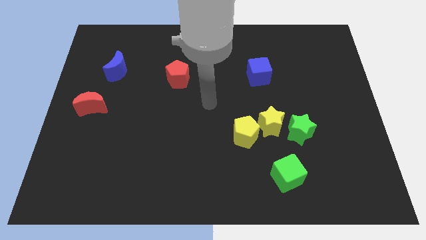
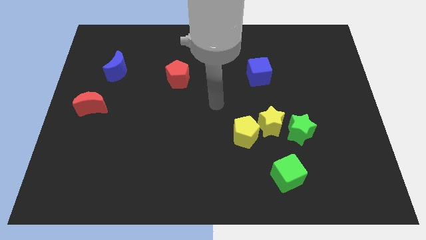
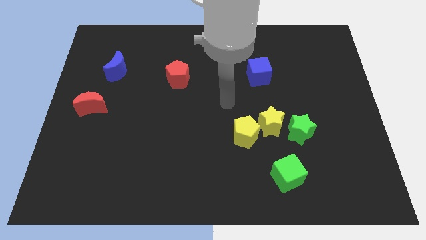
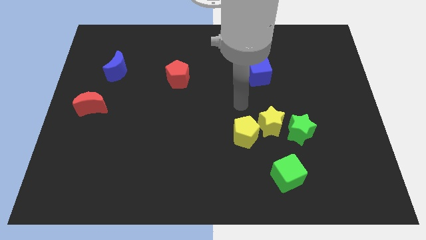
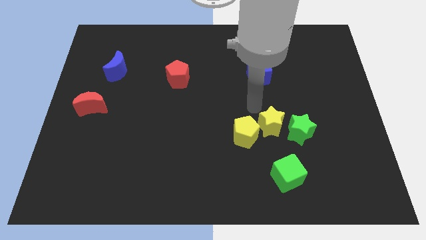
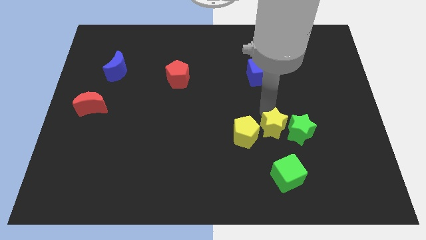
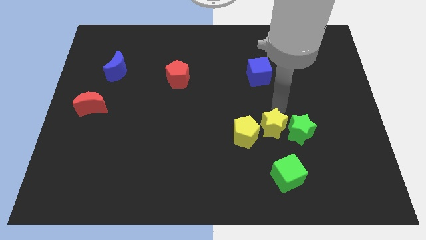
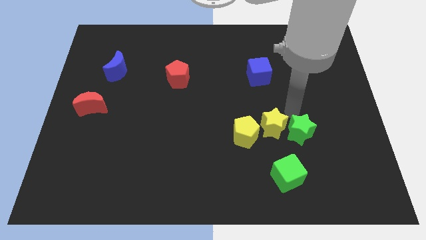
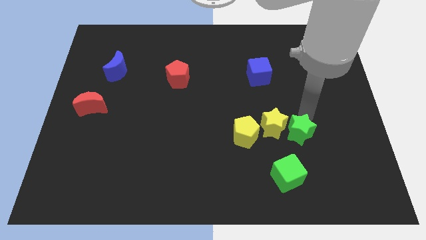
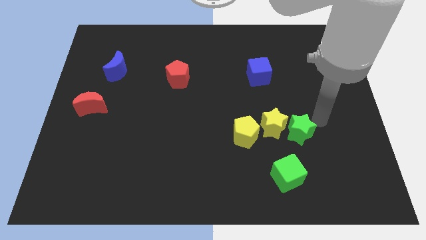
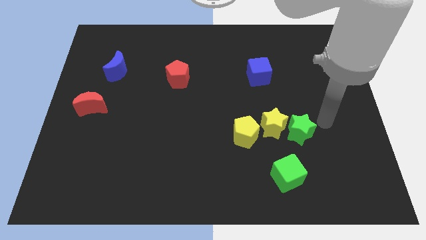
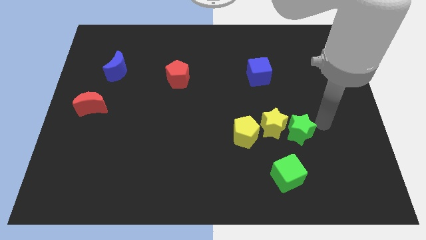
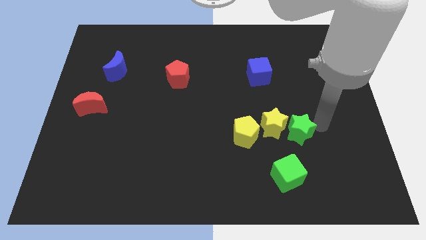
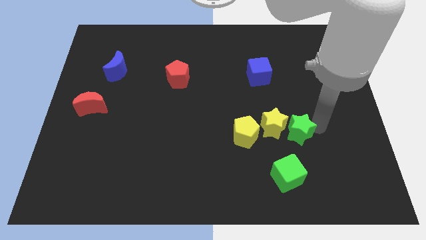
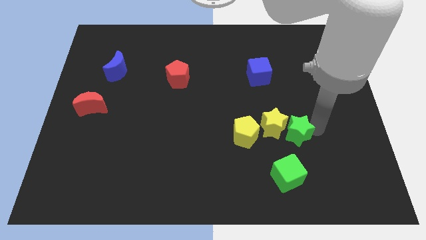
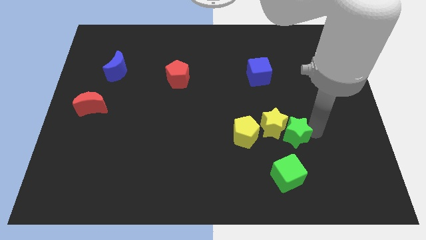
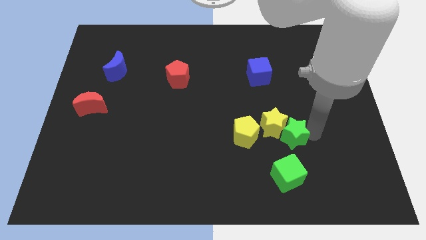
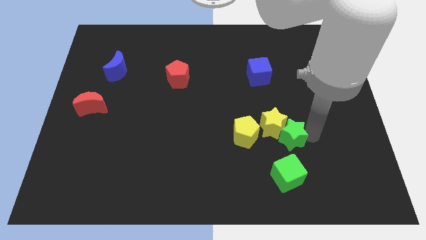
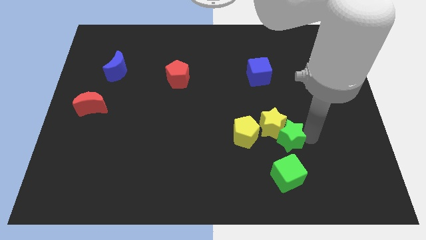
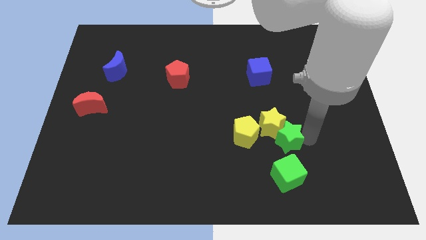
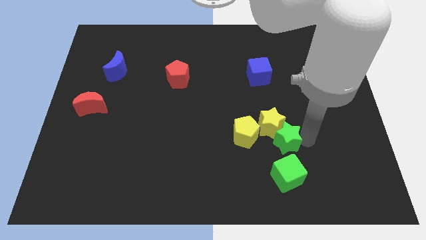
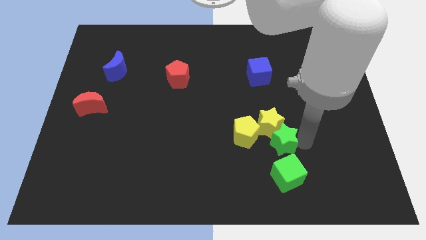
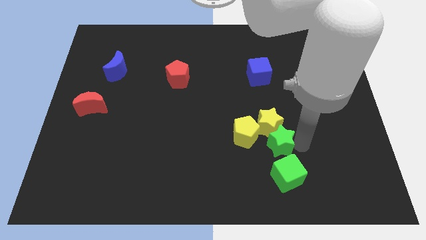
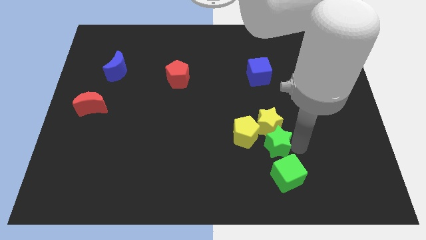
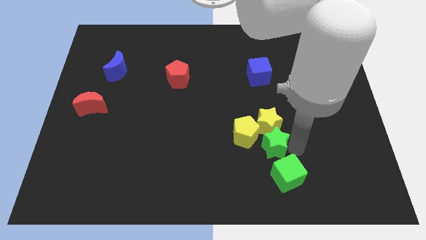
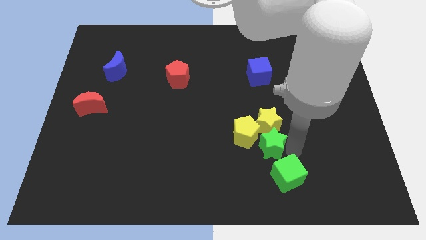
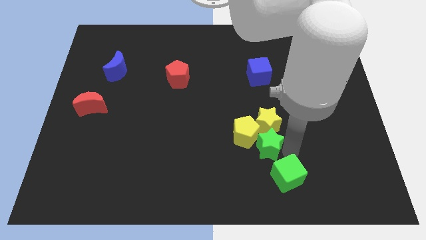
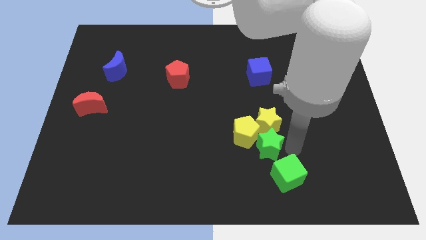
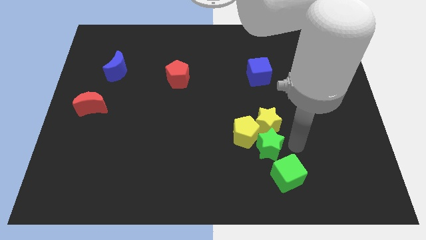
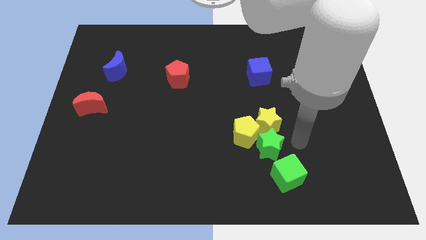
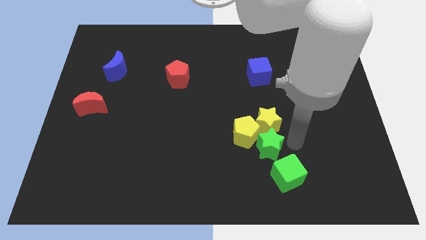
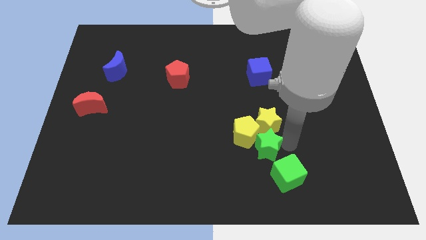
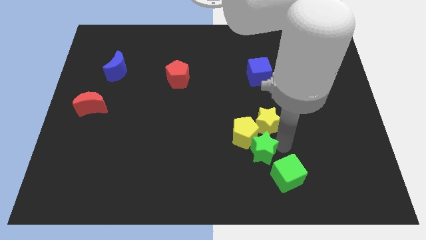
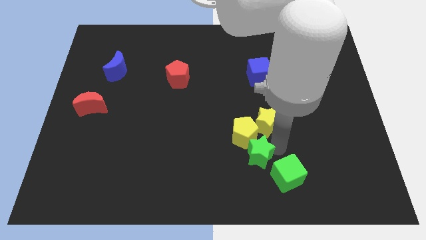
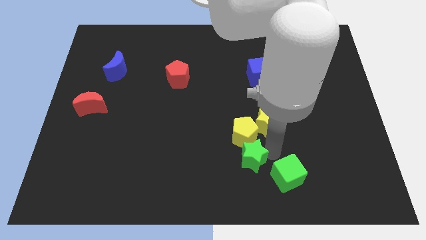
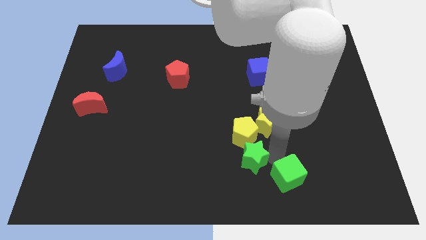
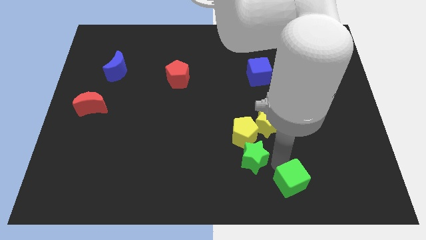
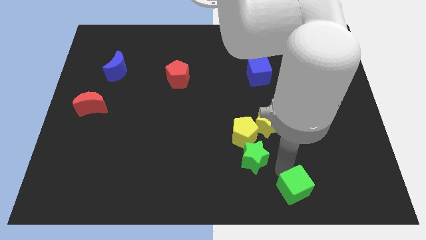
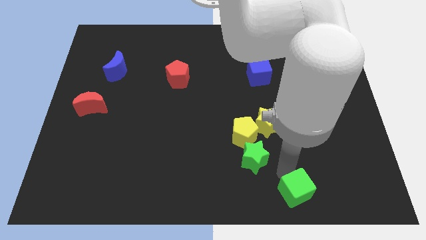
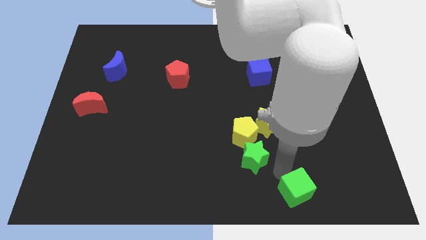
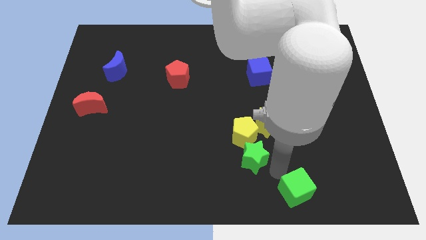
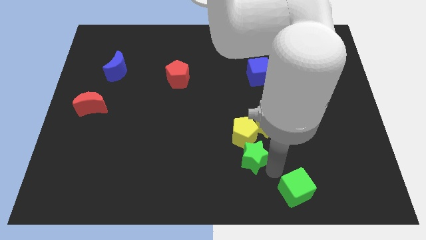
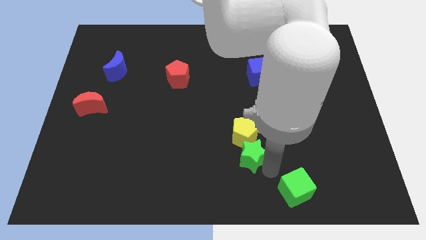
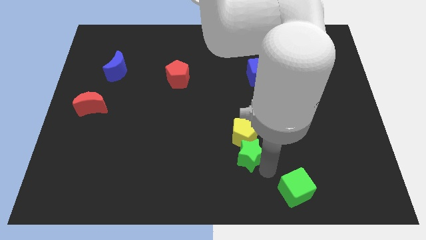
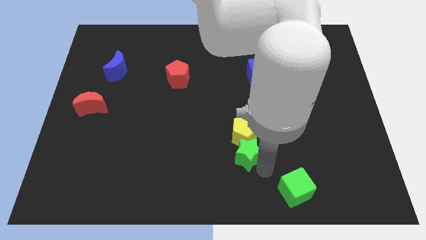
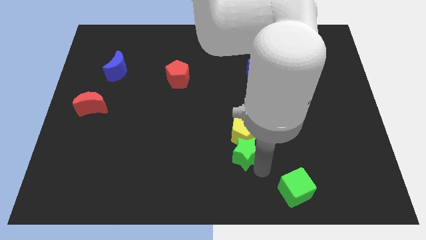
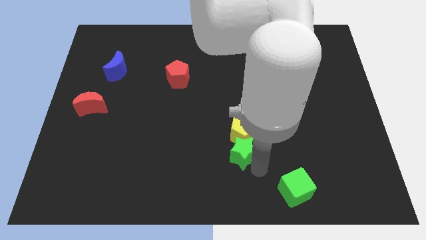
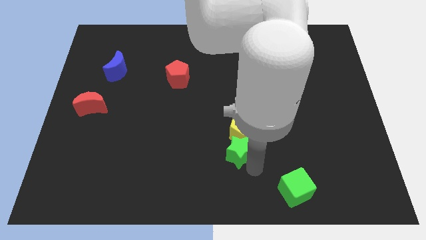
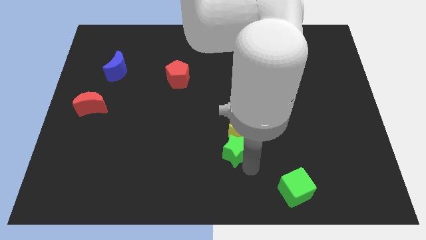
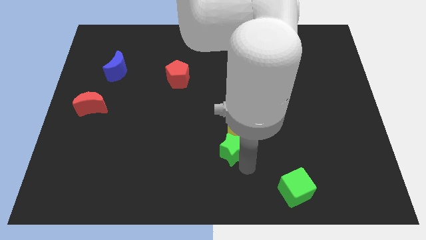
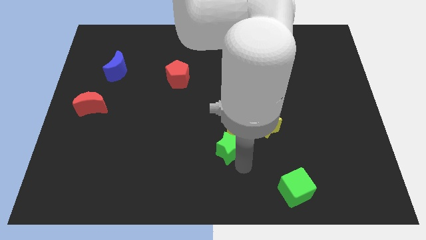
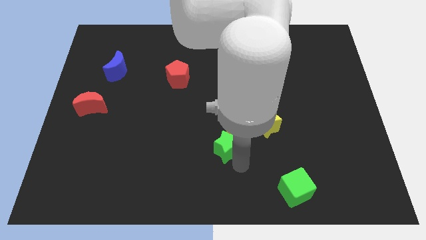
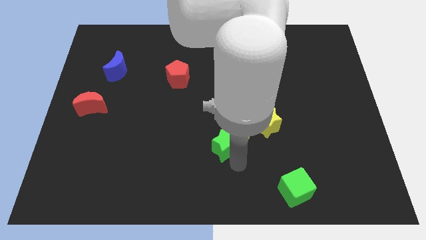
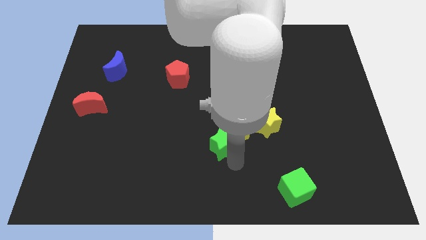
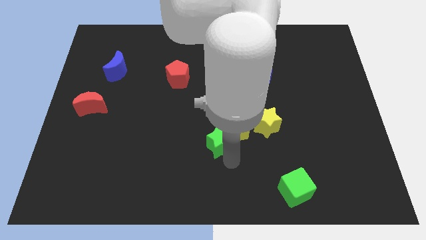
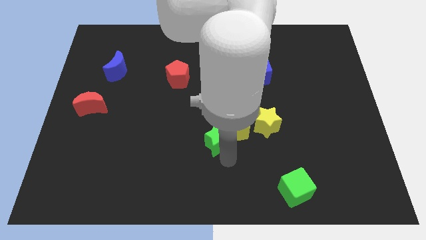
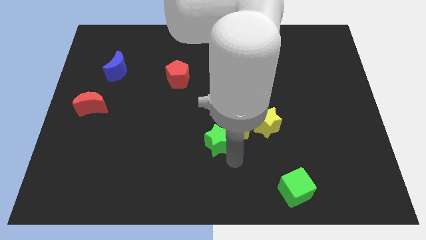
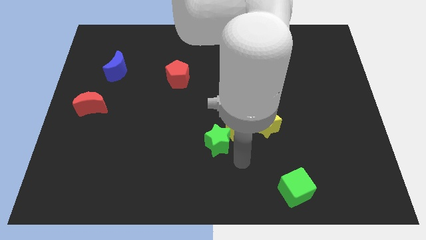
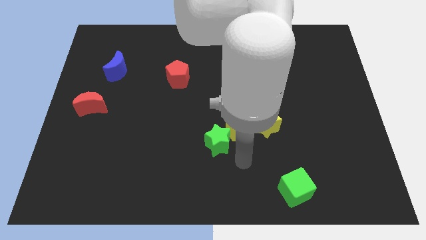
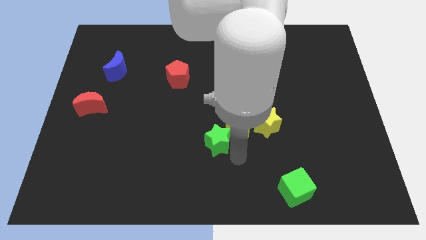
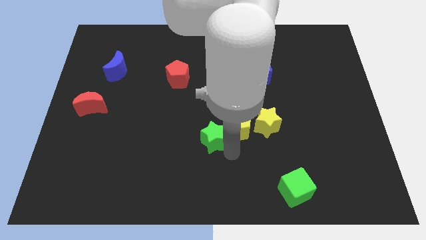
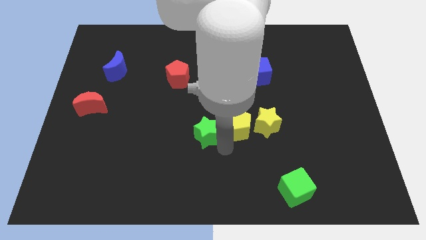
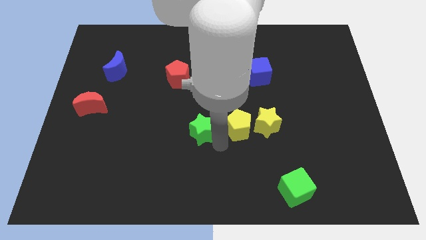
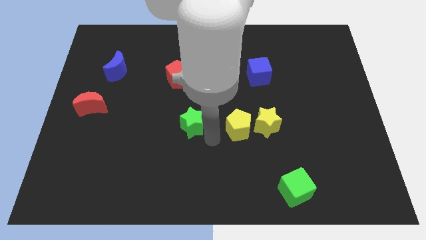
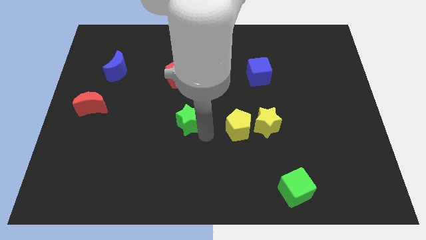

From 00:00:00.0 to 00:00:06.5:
put the green star to the bottom side of the red pentagon
